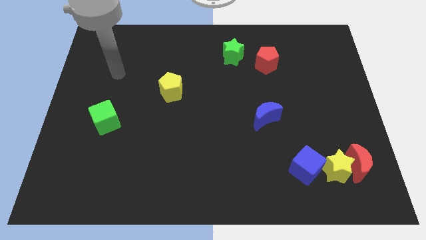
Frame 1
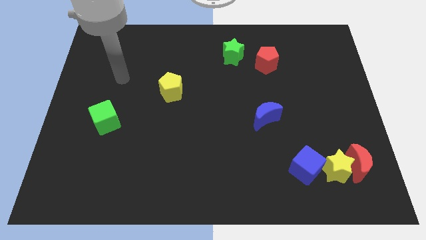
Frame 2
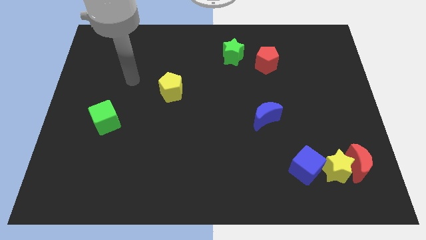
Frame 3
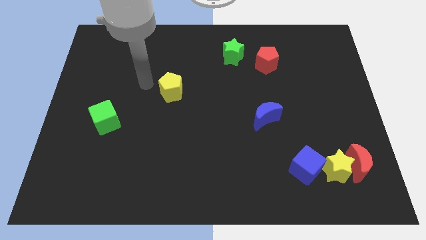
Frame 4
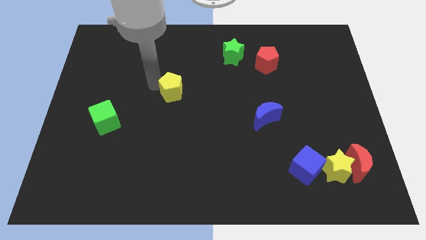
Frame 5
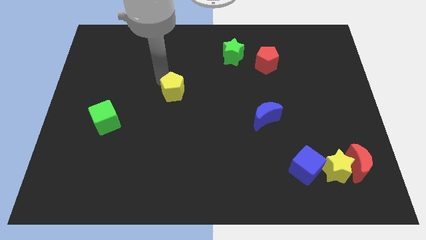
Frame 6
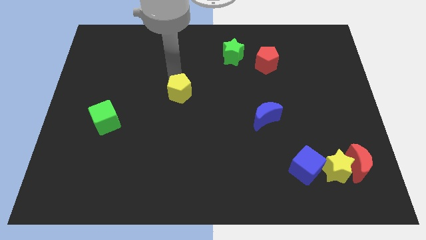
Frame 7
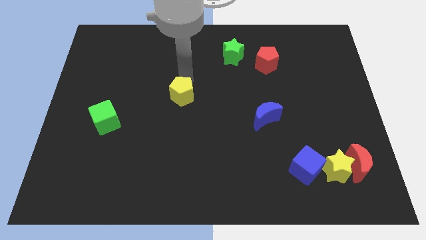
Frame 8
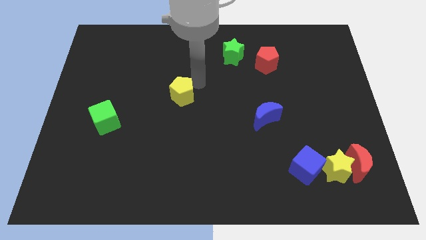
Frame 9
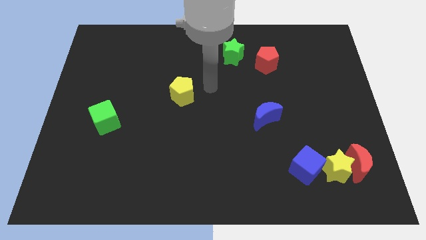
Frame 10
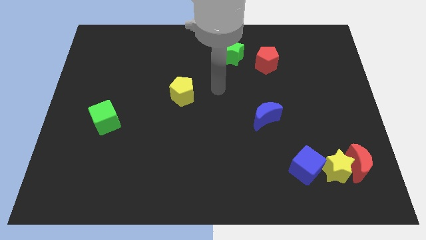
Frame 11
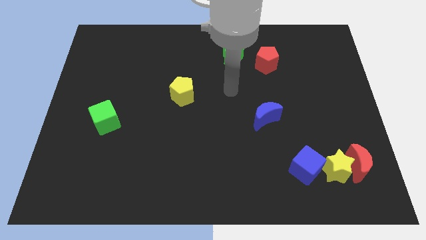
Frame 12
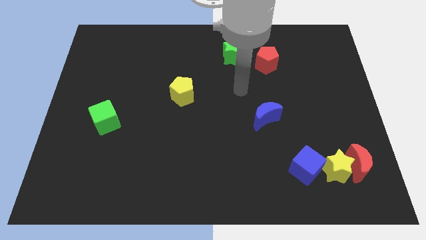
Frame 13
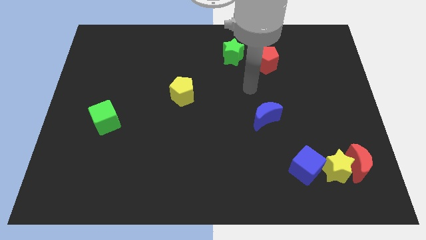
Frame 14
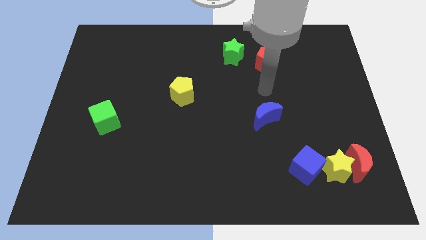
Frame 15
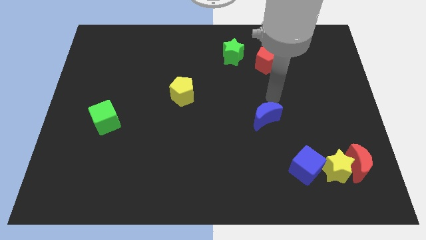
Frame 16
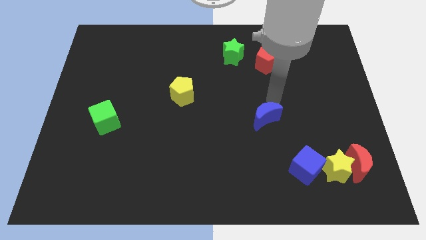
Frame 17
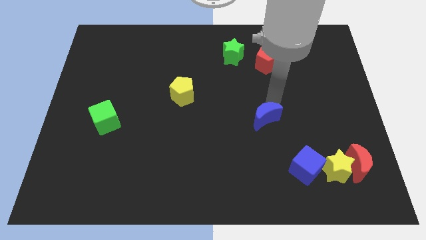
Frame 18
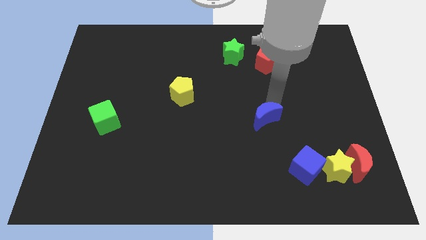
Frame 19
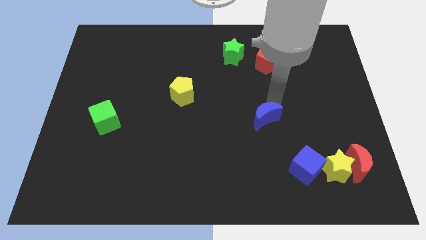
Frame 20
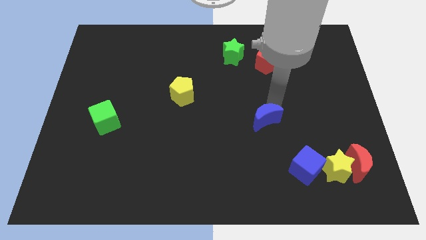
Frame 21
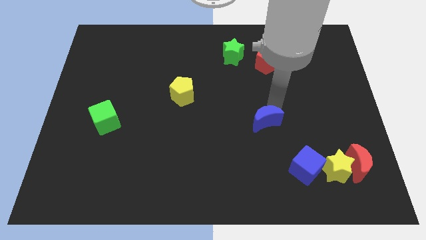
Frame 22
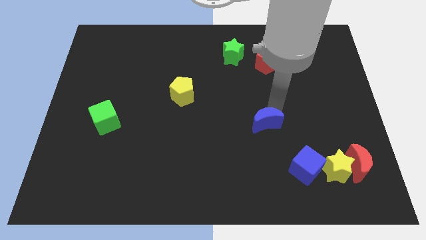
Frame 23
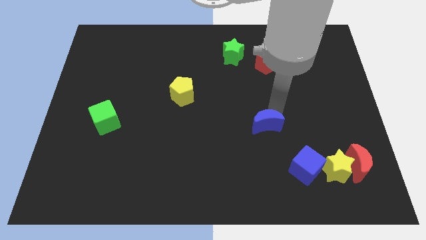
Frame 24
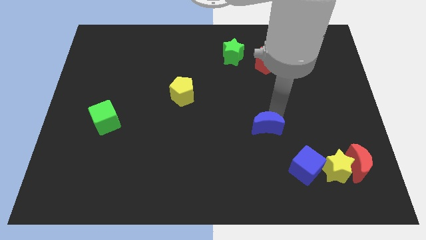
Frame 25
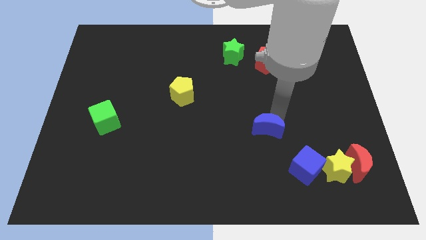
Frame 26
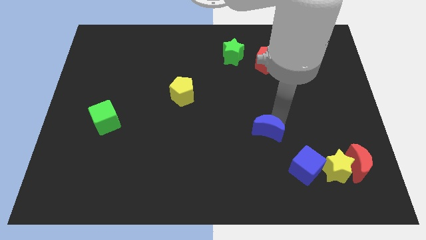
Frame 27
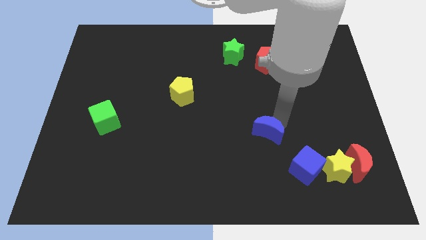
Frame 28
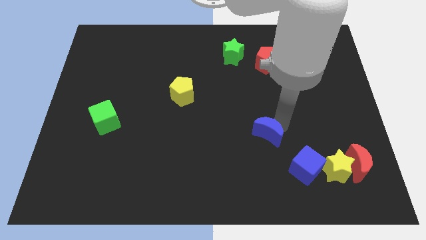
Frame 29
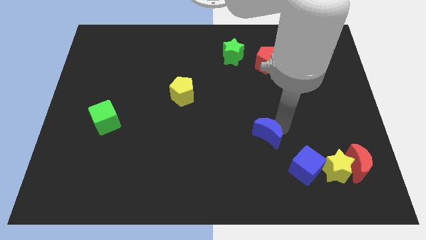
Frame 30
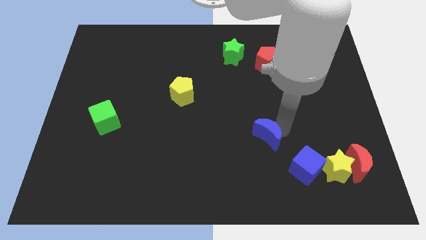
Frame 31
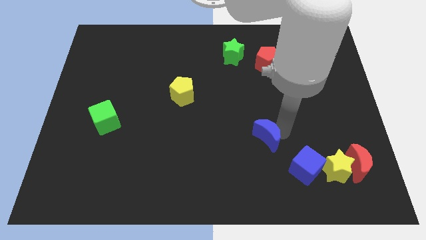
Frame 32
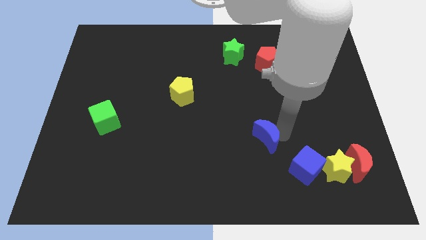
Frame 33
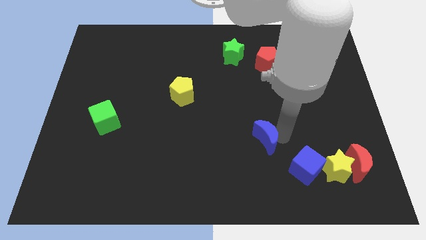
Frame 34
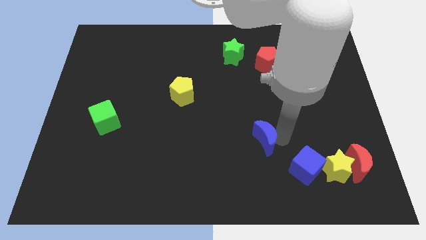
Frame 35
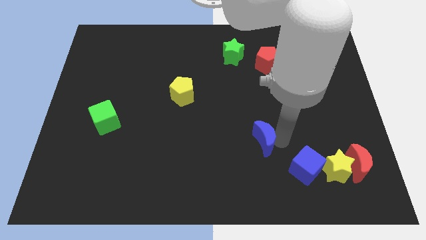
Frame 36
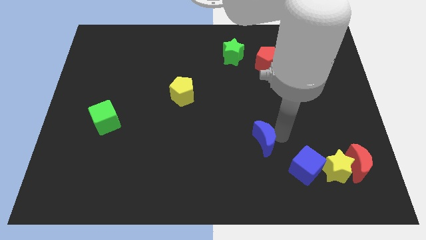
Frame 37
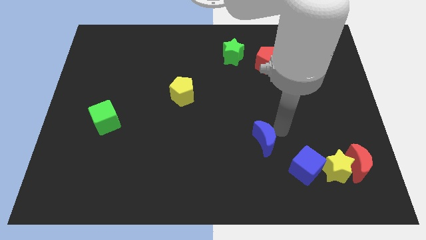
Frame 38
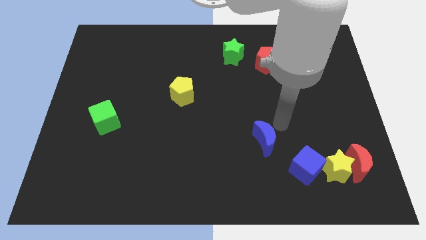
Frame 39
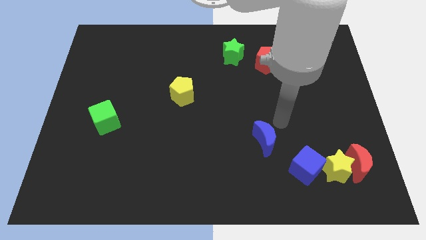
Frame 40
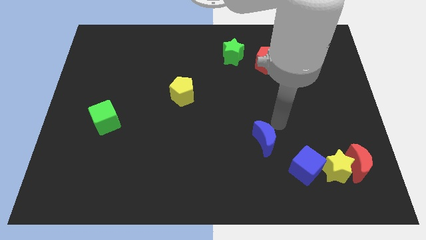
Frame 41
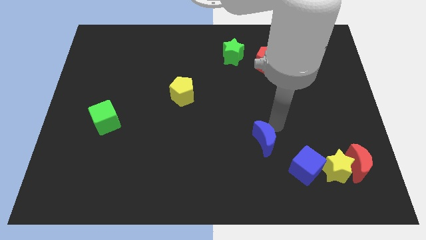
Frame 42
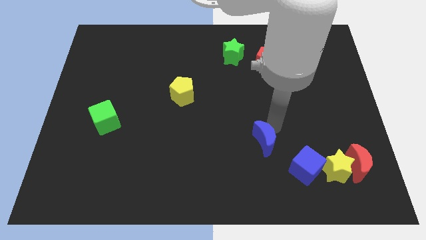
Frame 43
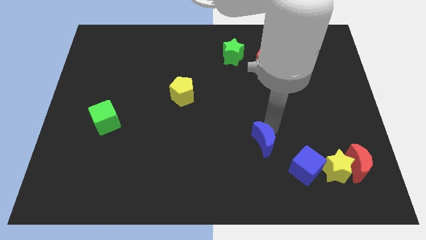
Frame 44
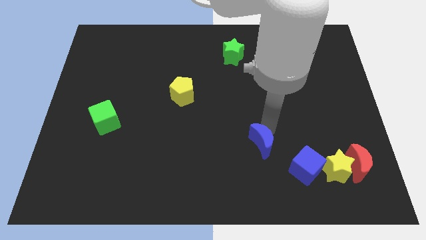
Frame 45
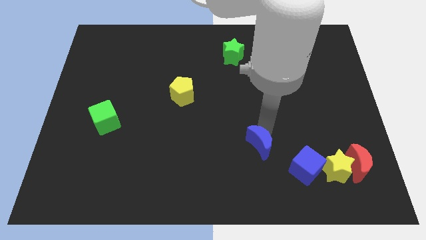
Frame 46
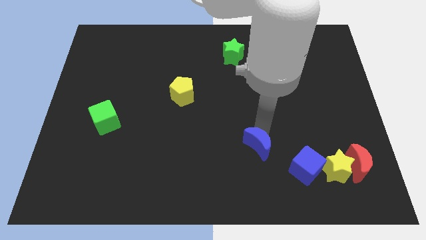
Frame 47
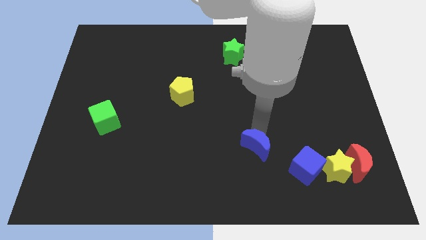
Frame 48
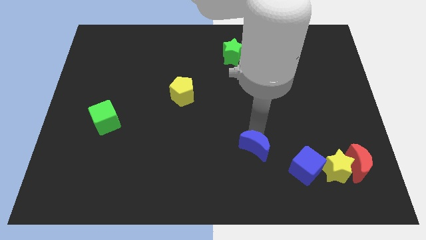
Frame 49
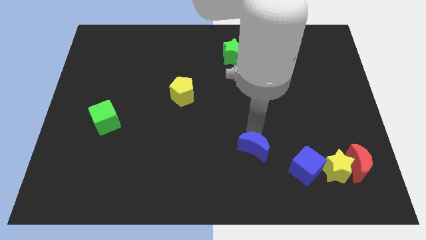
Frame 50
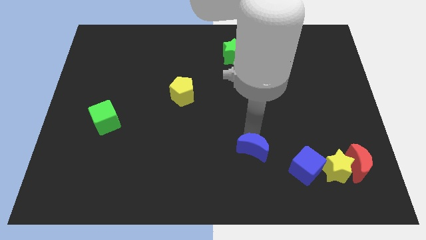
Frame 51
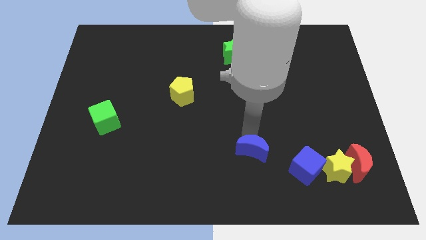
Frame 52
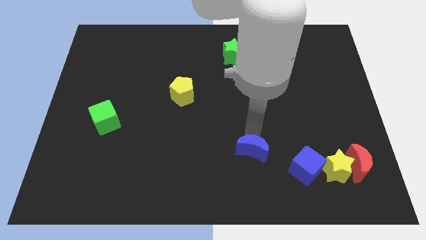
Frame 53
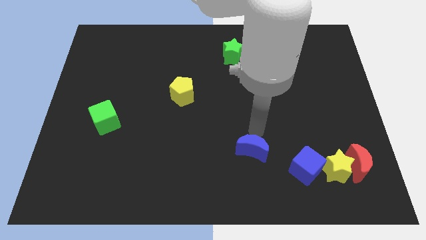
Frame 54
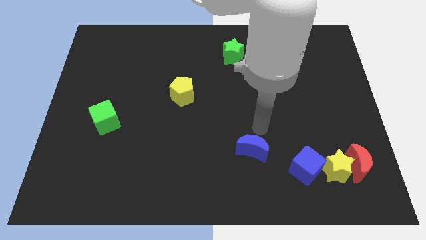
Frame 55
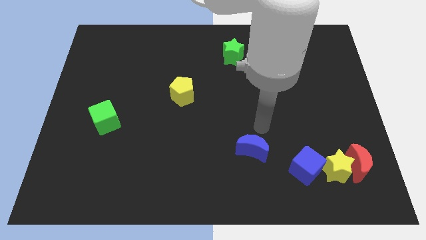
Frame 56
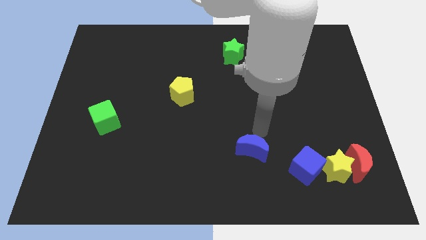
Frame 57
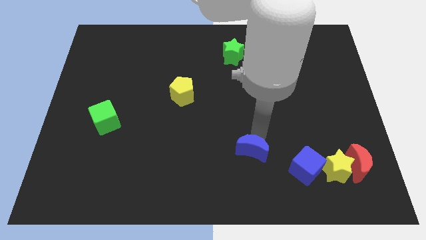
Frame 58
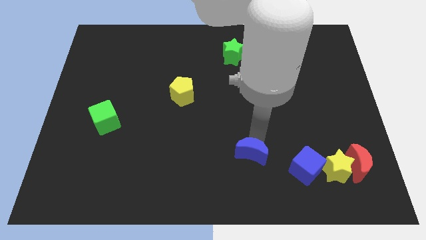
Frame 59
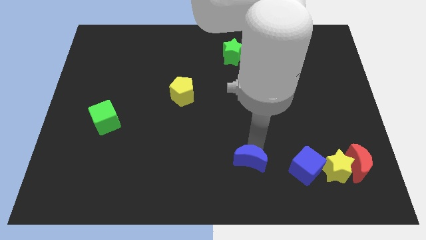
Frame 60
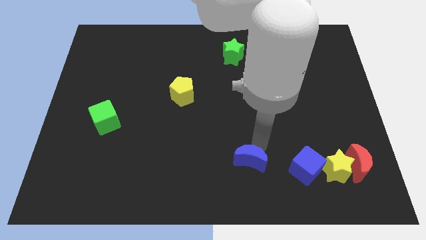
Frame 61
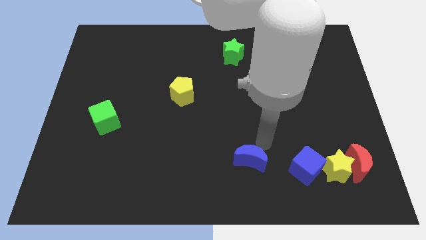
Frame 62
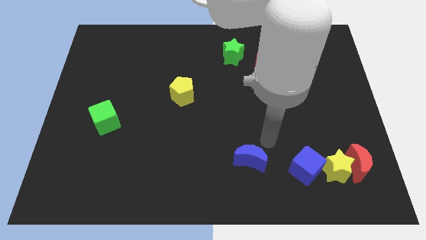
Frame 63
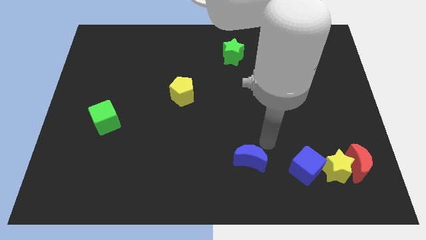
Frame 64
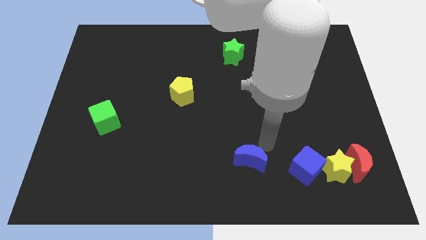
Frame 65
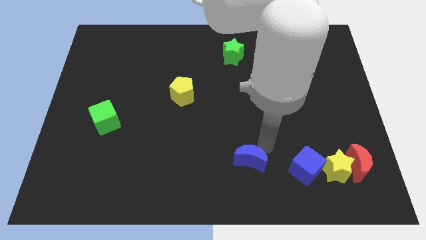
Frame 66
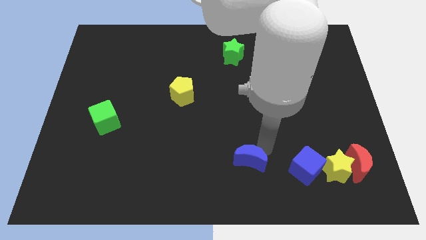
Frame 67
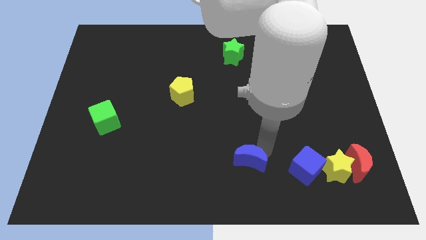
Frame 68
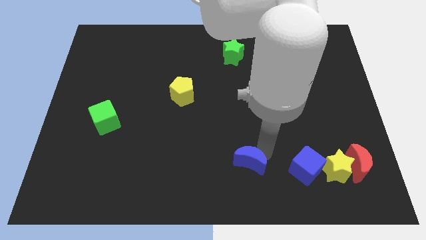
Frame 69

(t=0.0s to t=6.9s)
slide the blue moon to the bottom

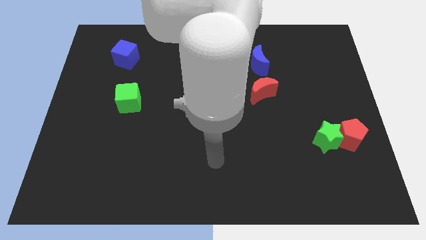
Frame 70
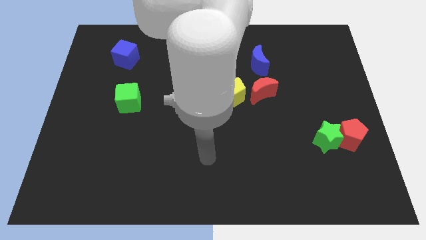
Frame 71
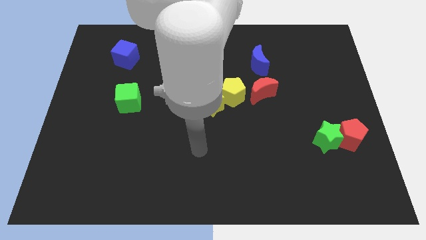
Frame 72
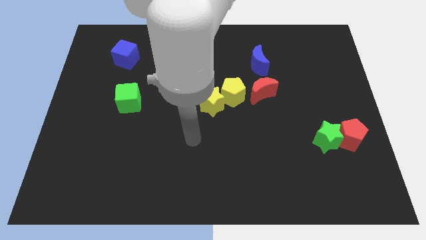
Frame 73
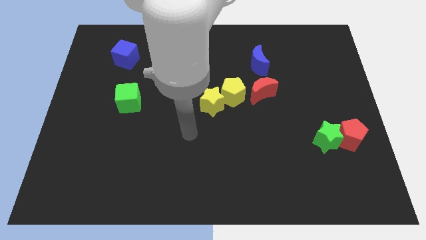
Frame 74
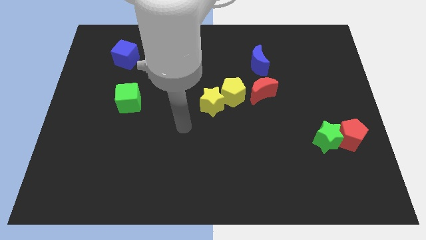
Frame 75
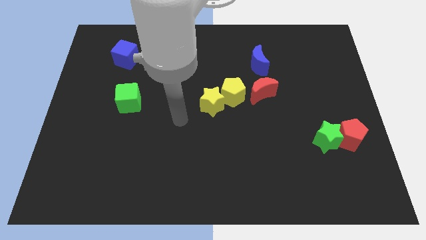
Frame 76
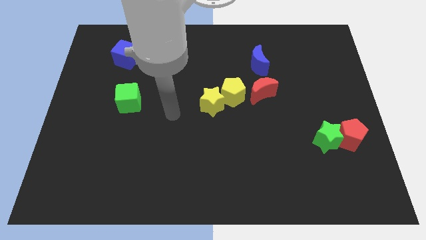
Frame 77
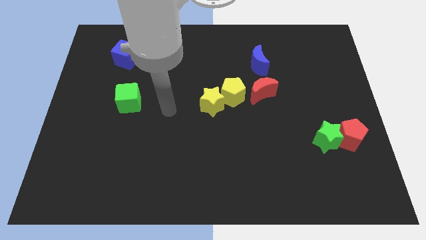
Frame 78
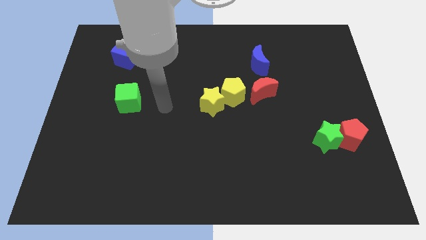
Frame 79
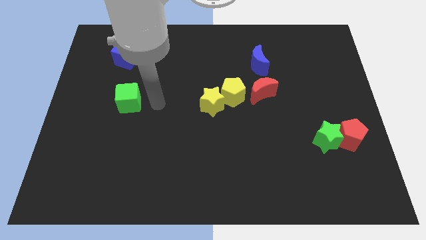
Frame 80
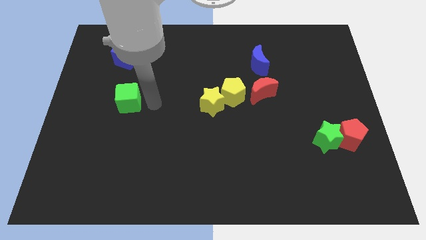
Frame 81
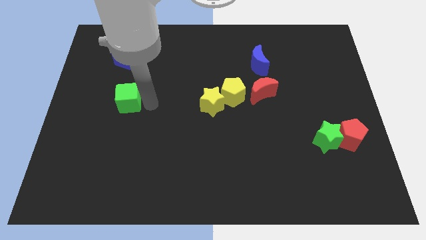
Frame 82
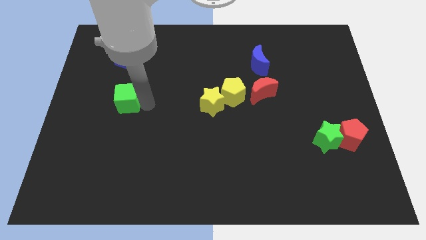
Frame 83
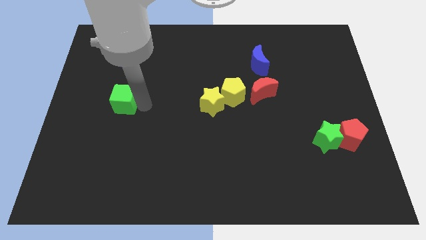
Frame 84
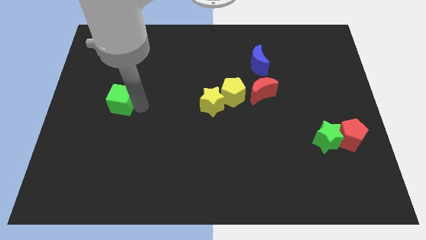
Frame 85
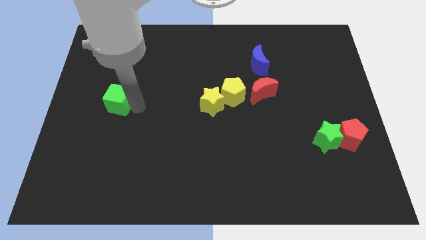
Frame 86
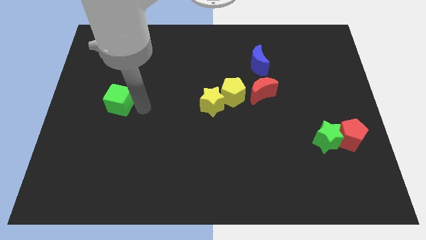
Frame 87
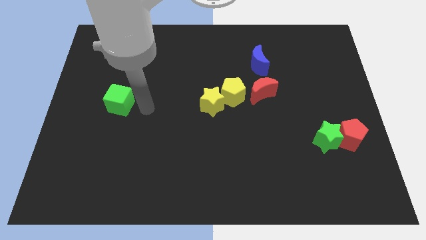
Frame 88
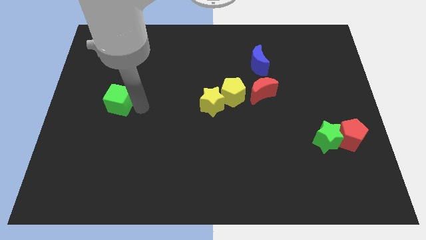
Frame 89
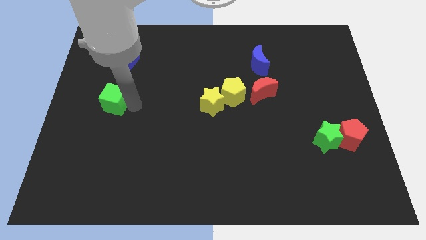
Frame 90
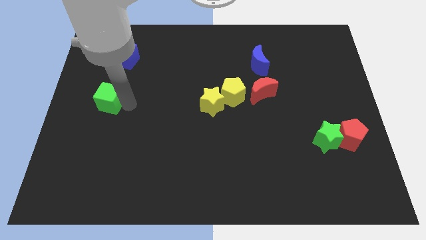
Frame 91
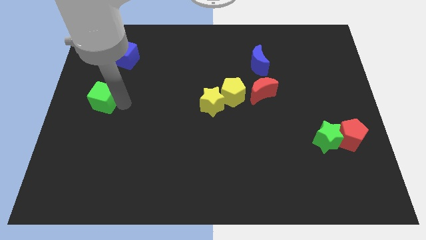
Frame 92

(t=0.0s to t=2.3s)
move the green cube to the left side of the board
